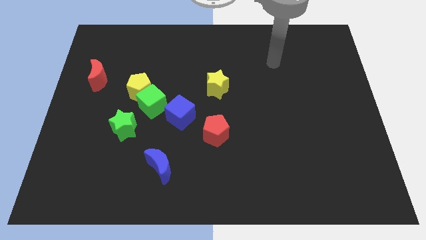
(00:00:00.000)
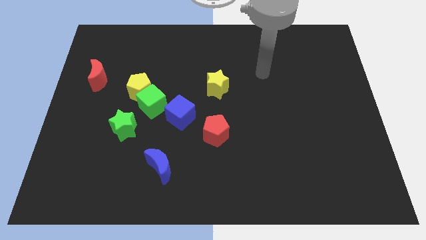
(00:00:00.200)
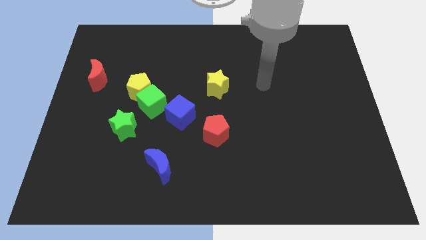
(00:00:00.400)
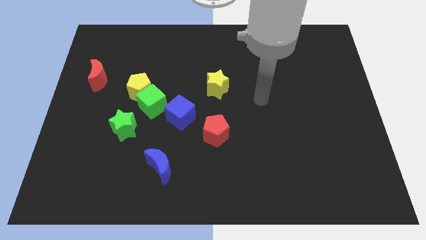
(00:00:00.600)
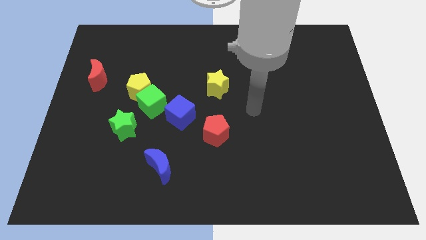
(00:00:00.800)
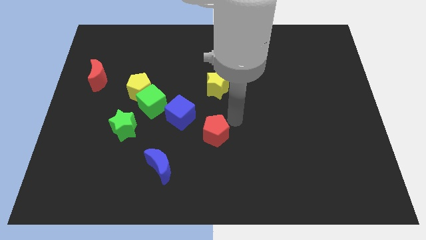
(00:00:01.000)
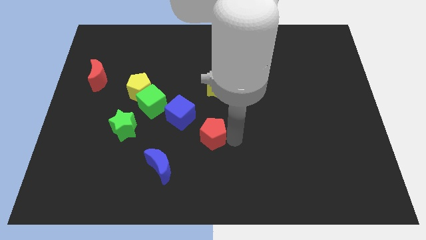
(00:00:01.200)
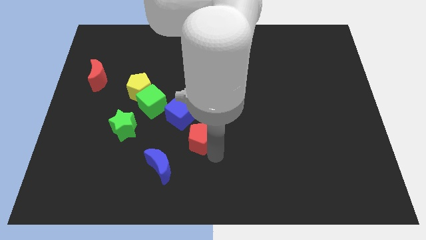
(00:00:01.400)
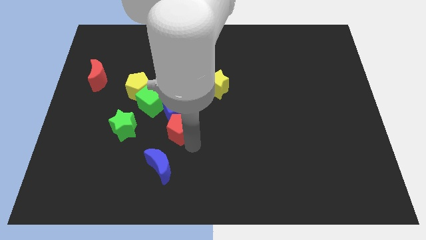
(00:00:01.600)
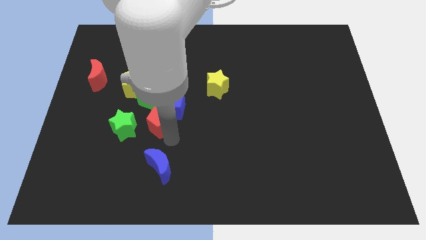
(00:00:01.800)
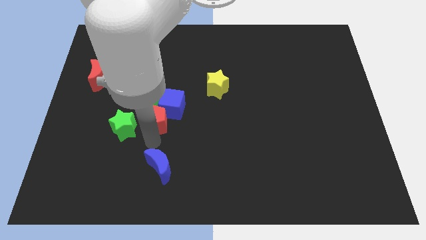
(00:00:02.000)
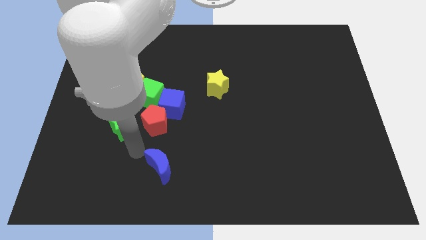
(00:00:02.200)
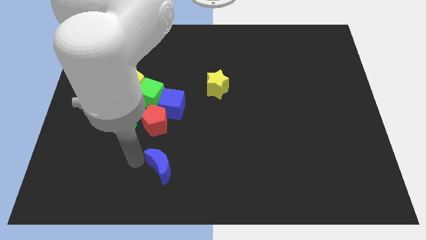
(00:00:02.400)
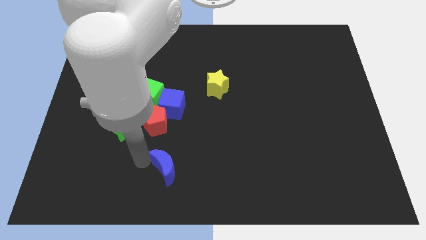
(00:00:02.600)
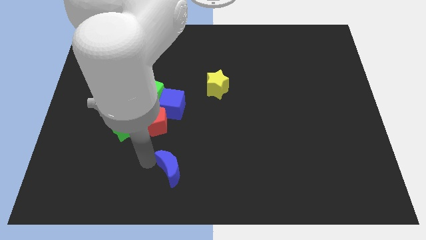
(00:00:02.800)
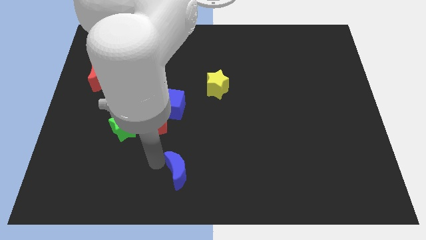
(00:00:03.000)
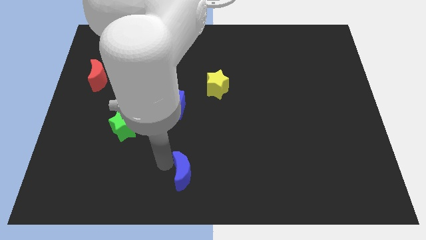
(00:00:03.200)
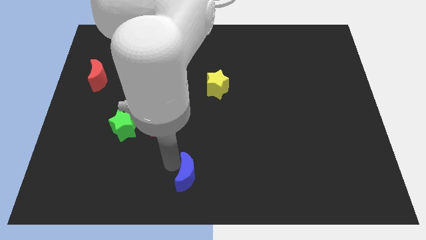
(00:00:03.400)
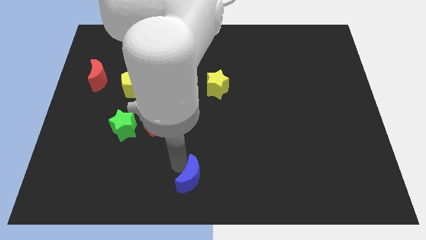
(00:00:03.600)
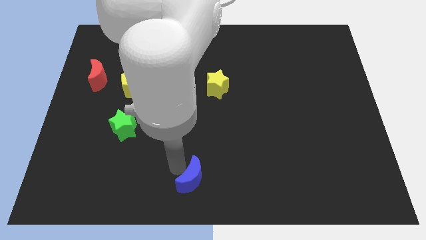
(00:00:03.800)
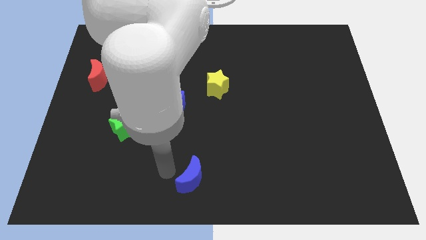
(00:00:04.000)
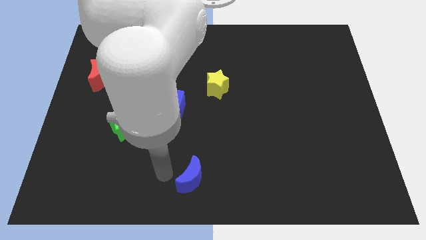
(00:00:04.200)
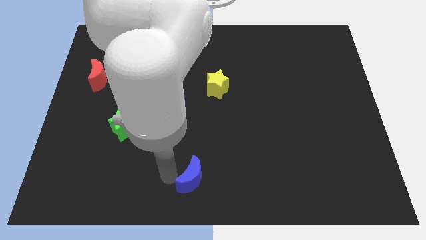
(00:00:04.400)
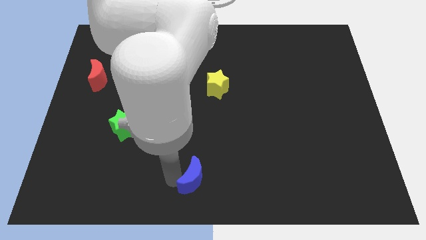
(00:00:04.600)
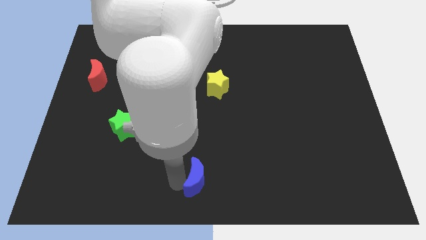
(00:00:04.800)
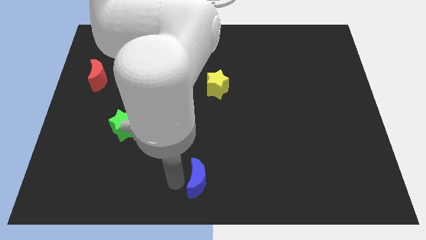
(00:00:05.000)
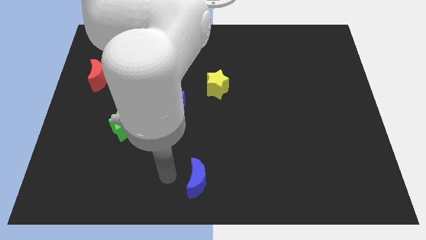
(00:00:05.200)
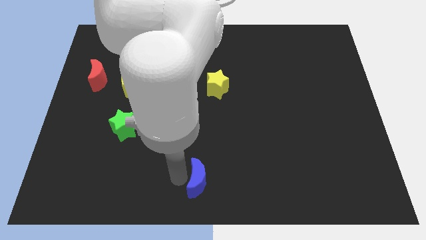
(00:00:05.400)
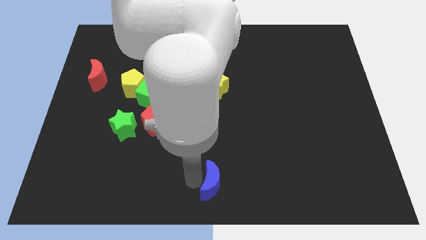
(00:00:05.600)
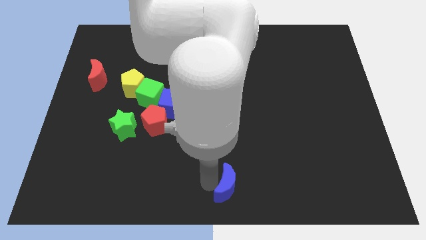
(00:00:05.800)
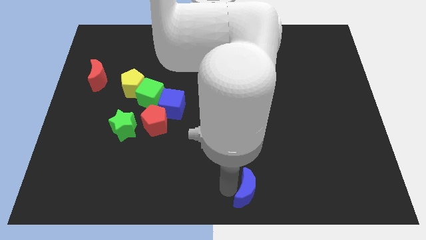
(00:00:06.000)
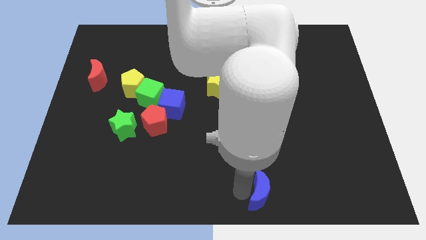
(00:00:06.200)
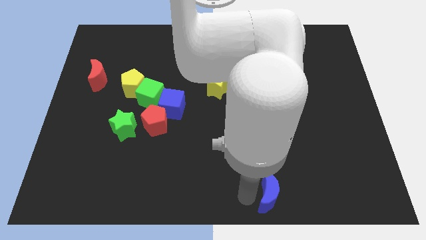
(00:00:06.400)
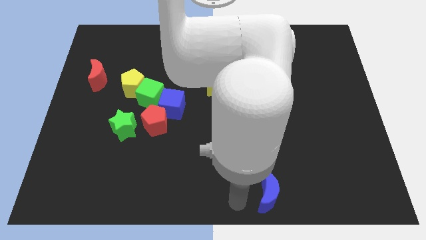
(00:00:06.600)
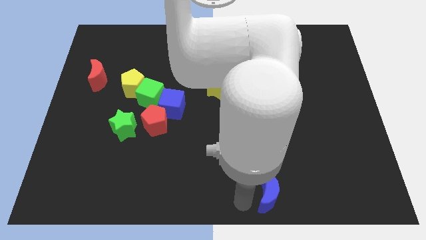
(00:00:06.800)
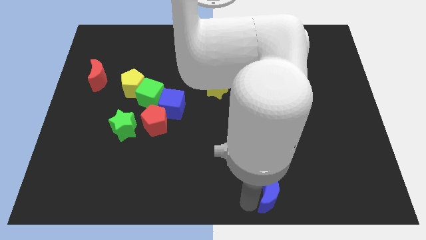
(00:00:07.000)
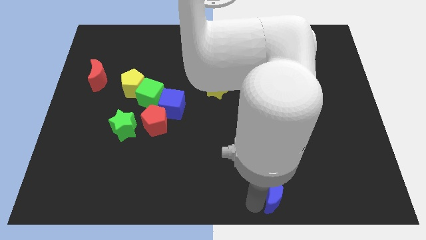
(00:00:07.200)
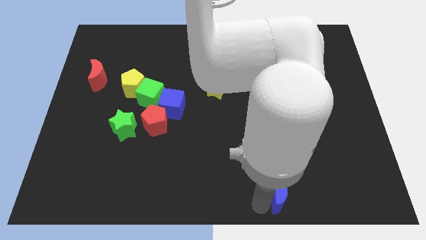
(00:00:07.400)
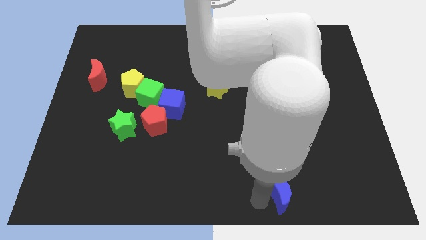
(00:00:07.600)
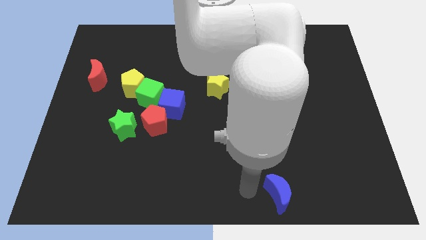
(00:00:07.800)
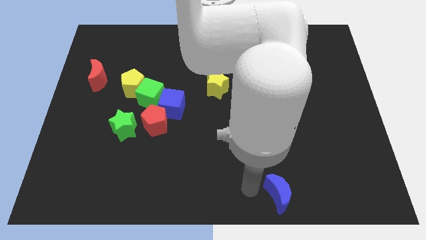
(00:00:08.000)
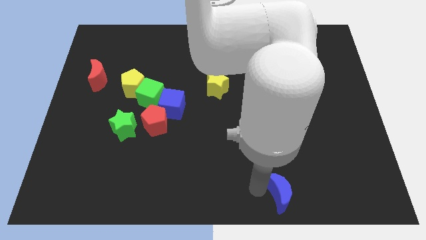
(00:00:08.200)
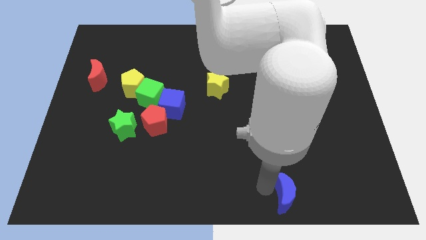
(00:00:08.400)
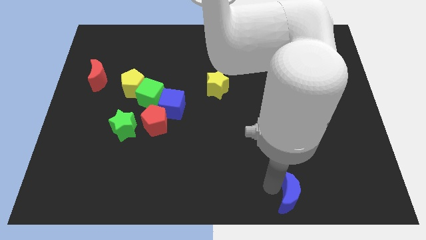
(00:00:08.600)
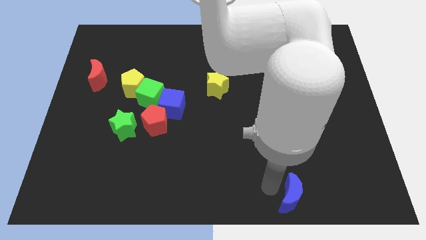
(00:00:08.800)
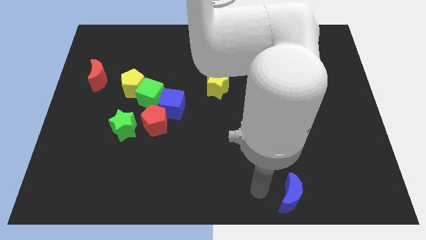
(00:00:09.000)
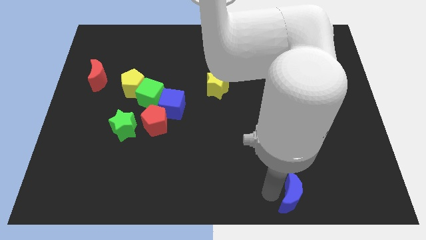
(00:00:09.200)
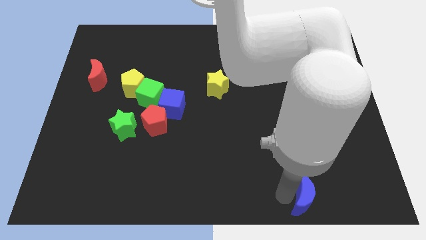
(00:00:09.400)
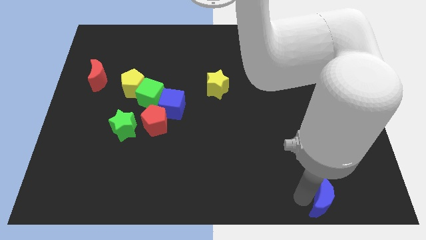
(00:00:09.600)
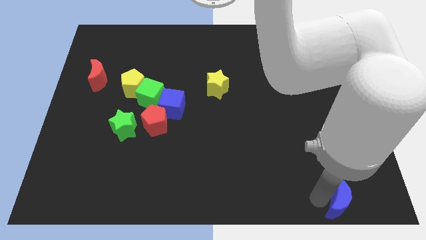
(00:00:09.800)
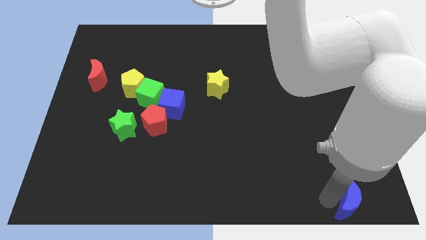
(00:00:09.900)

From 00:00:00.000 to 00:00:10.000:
push the blue moon to the bottom right corner

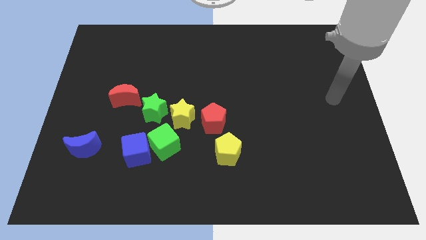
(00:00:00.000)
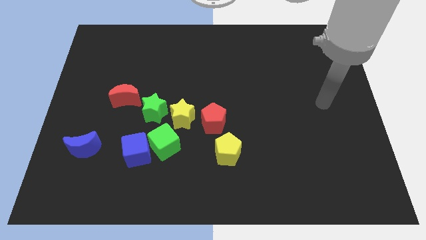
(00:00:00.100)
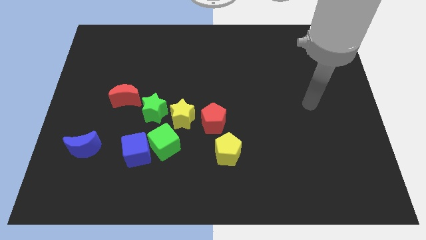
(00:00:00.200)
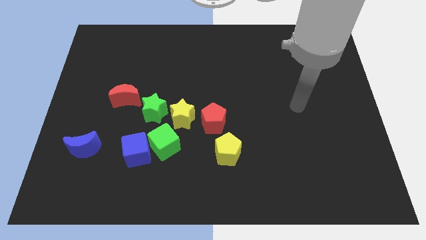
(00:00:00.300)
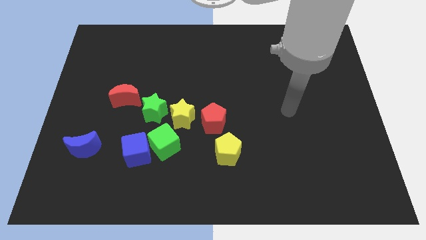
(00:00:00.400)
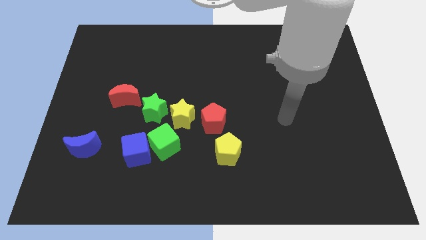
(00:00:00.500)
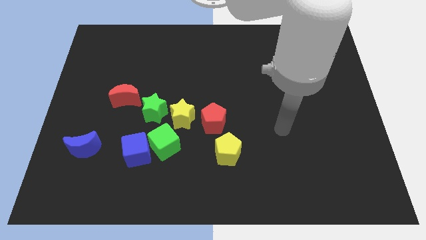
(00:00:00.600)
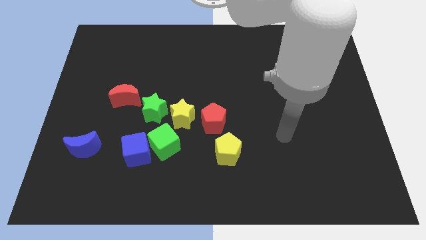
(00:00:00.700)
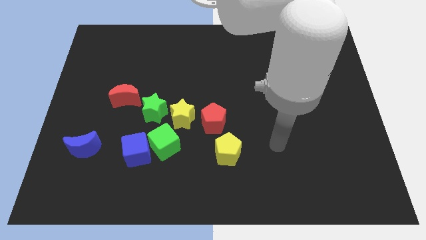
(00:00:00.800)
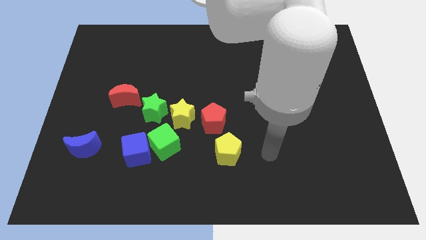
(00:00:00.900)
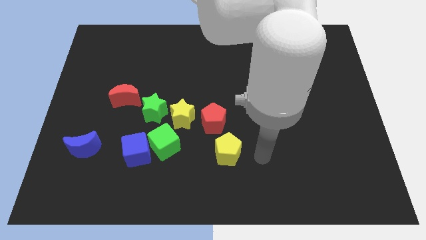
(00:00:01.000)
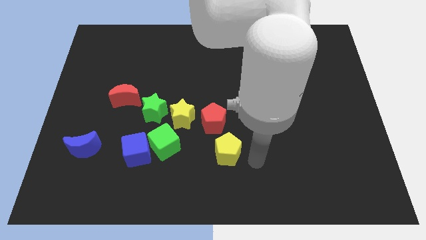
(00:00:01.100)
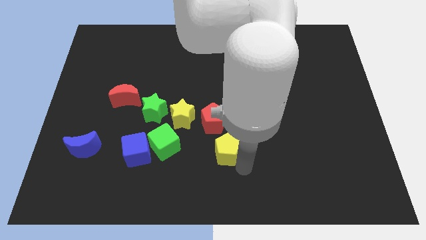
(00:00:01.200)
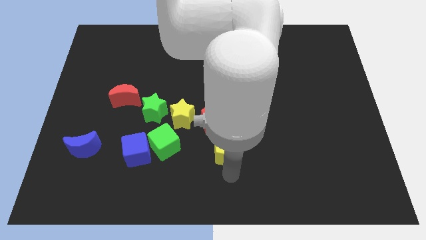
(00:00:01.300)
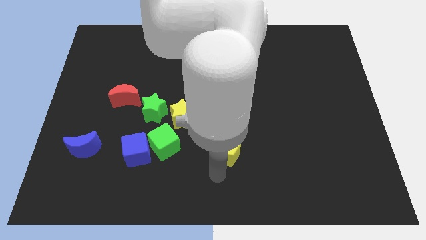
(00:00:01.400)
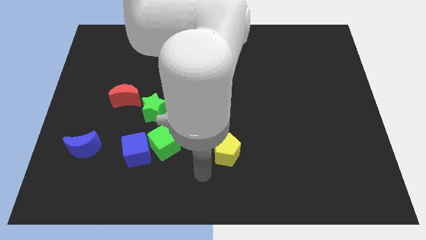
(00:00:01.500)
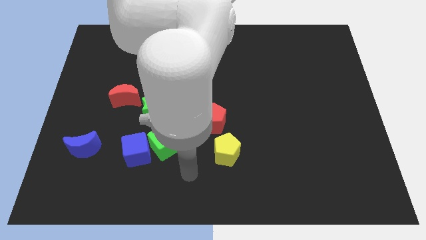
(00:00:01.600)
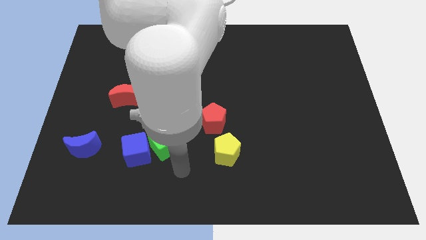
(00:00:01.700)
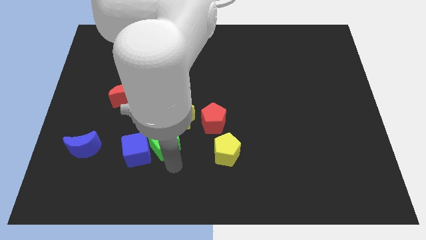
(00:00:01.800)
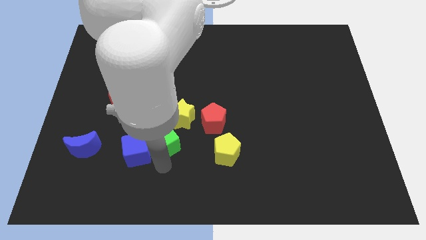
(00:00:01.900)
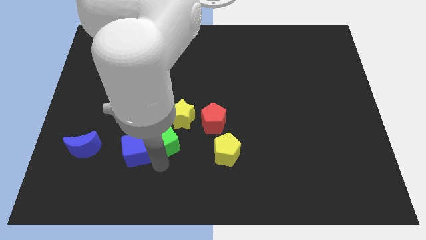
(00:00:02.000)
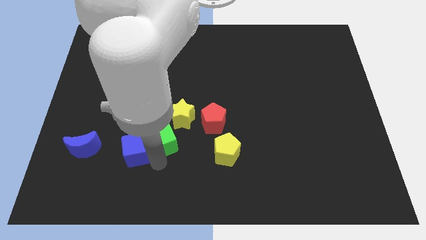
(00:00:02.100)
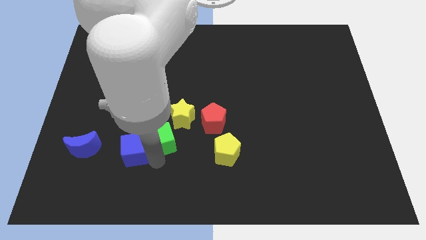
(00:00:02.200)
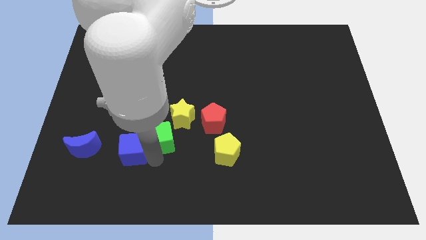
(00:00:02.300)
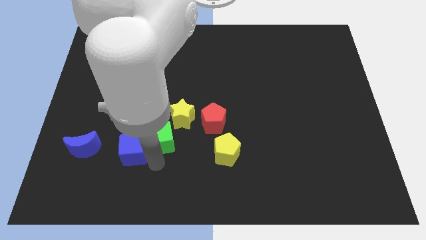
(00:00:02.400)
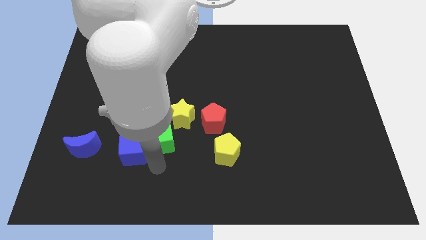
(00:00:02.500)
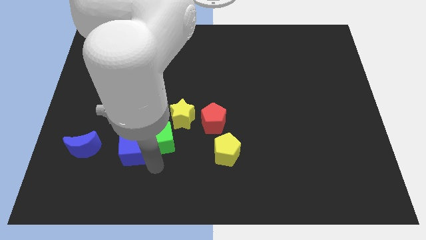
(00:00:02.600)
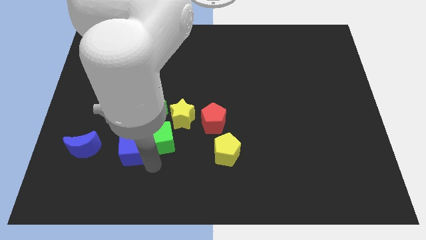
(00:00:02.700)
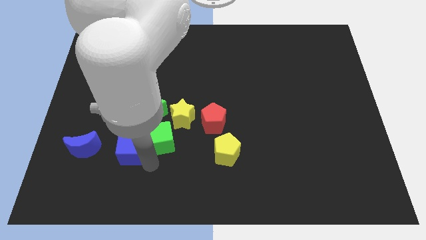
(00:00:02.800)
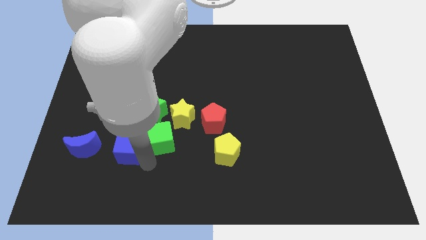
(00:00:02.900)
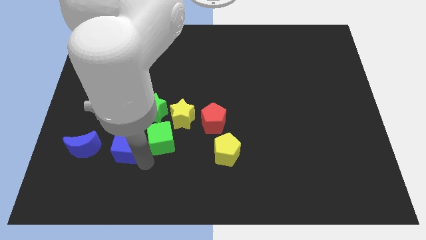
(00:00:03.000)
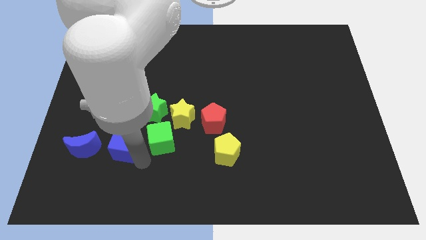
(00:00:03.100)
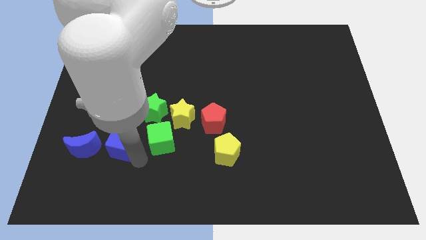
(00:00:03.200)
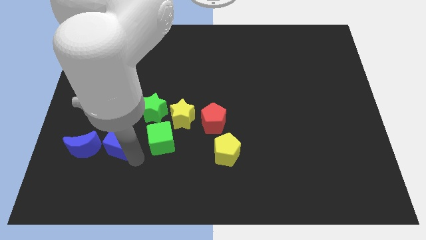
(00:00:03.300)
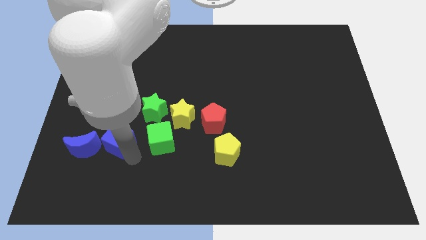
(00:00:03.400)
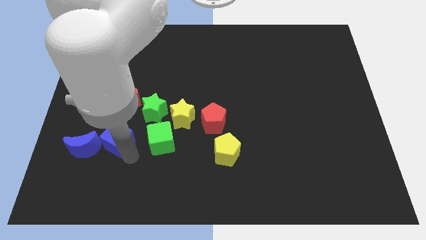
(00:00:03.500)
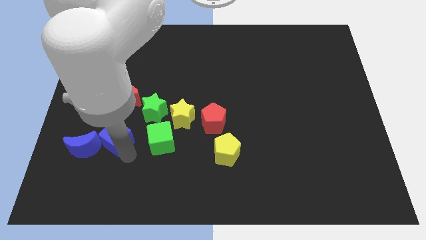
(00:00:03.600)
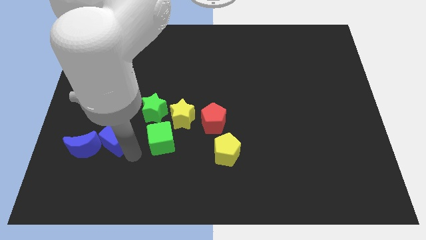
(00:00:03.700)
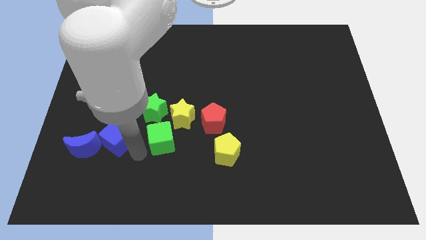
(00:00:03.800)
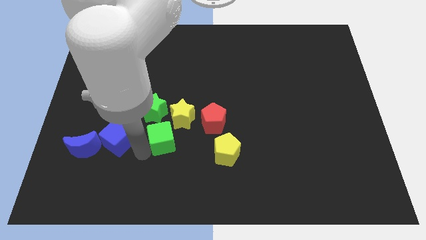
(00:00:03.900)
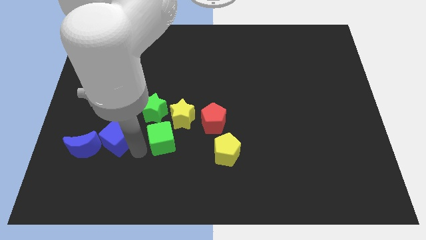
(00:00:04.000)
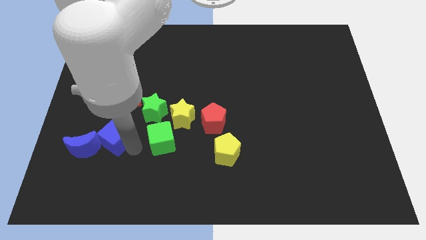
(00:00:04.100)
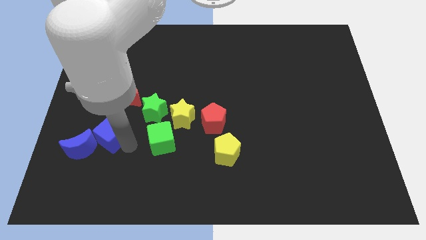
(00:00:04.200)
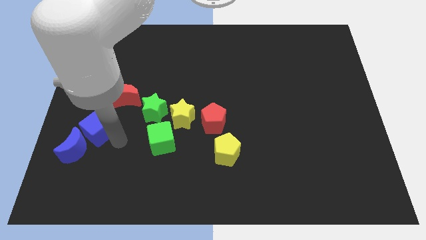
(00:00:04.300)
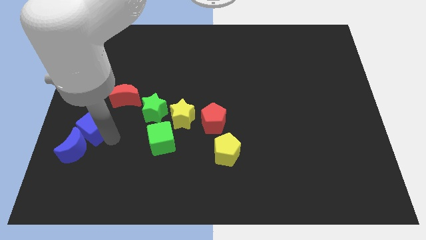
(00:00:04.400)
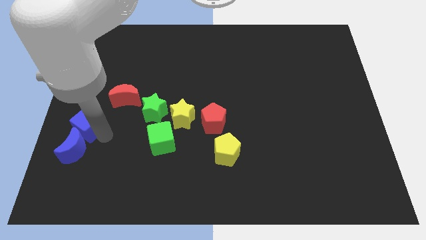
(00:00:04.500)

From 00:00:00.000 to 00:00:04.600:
slide the blue cube to the left side
